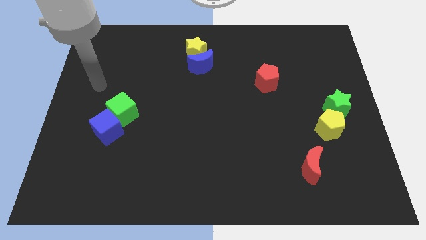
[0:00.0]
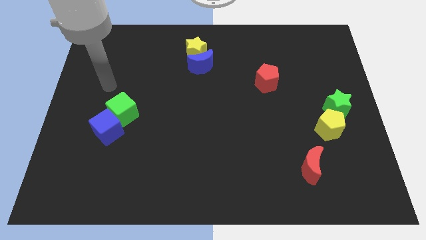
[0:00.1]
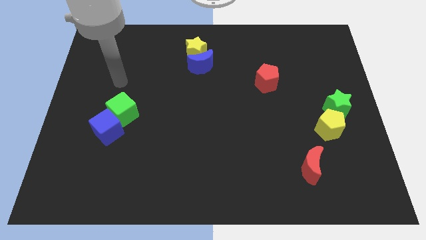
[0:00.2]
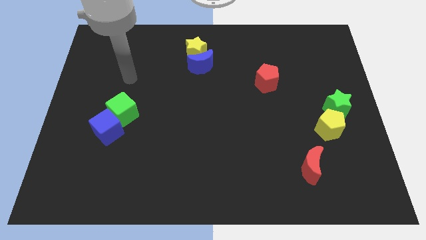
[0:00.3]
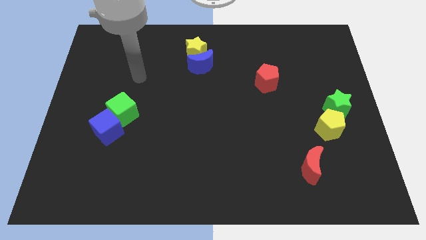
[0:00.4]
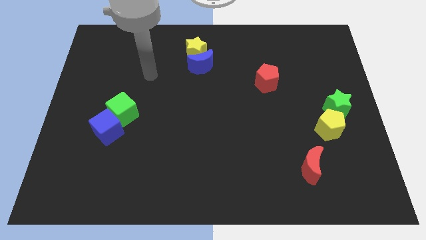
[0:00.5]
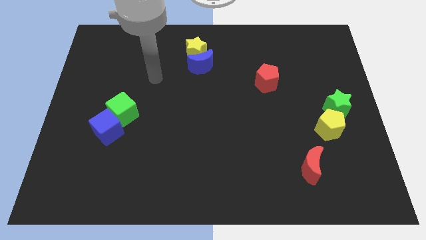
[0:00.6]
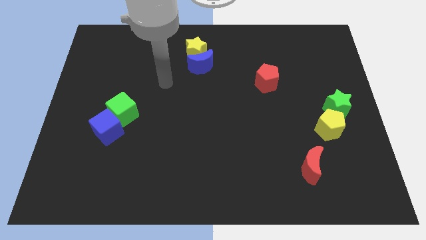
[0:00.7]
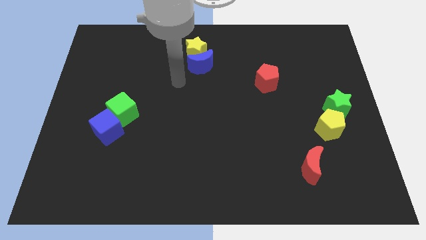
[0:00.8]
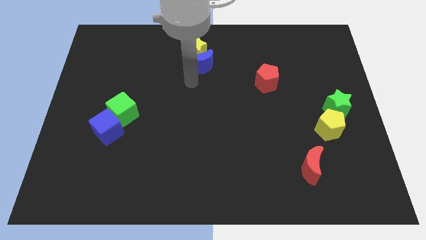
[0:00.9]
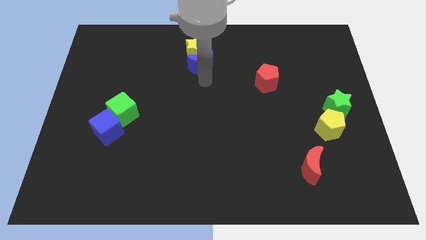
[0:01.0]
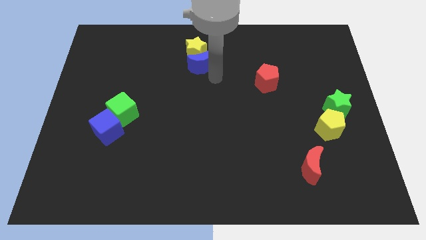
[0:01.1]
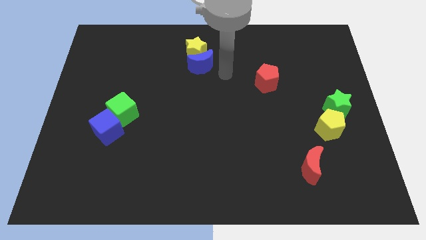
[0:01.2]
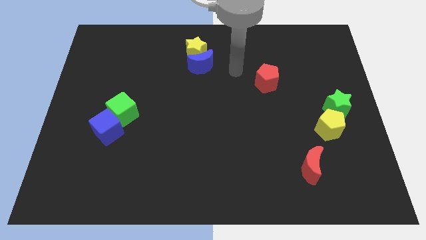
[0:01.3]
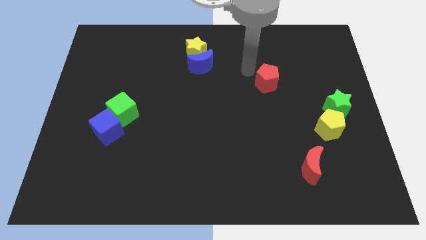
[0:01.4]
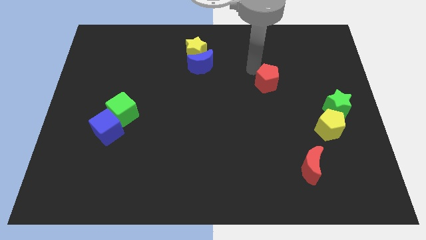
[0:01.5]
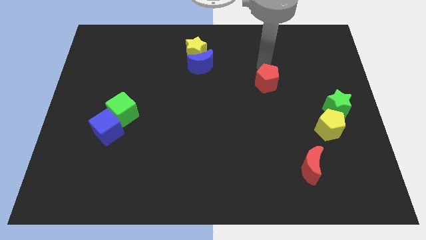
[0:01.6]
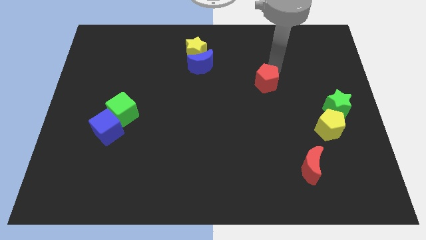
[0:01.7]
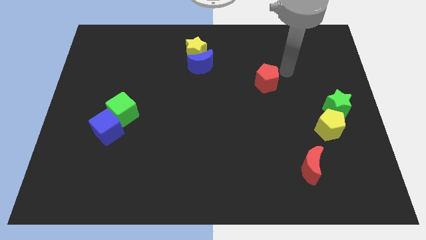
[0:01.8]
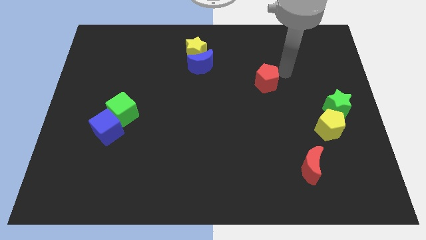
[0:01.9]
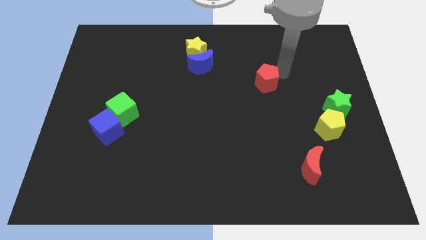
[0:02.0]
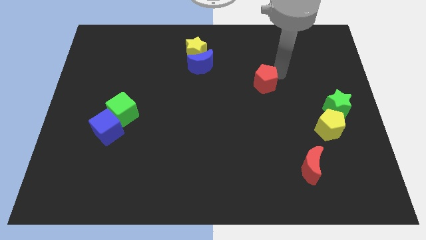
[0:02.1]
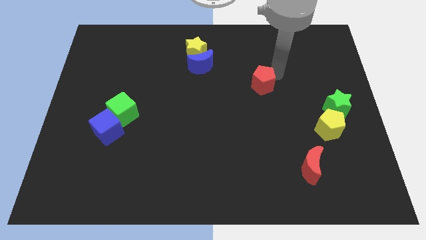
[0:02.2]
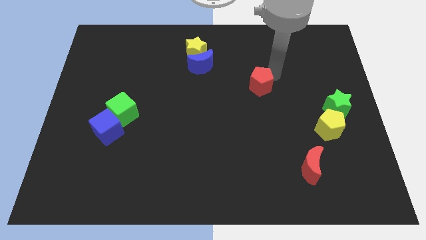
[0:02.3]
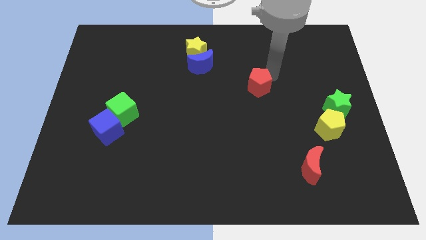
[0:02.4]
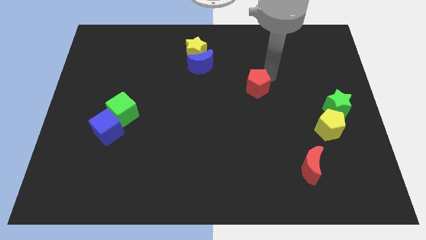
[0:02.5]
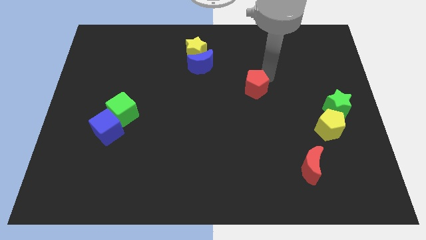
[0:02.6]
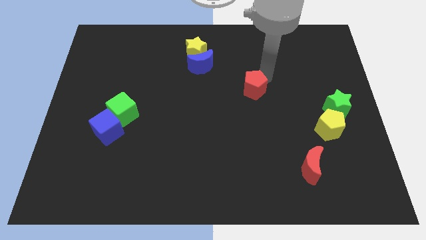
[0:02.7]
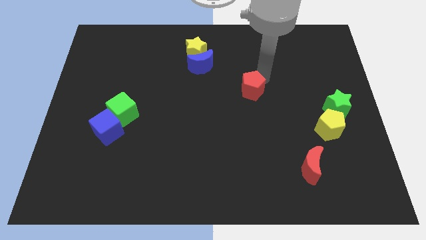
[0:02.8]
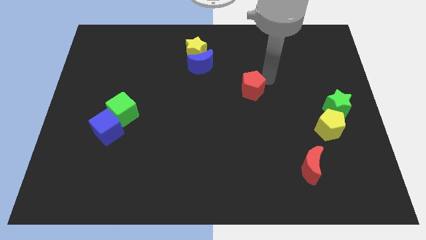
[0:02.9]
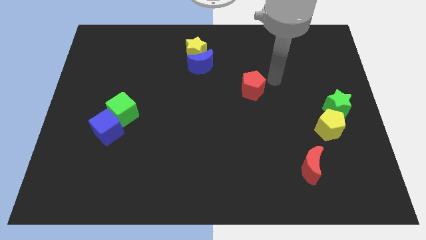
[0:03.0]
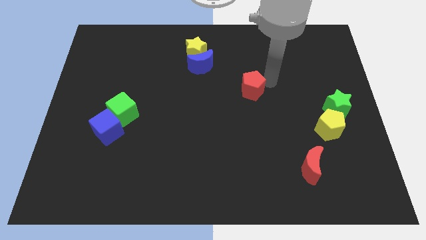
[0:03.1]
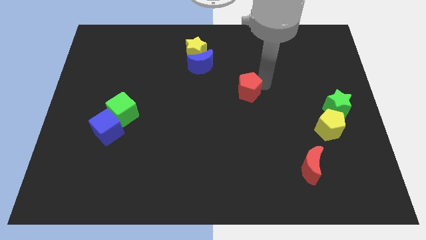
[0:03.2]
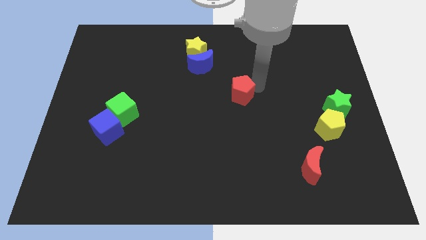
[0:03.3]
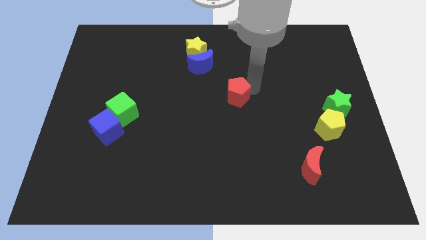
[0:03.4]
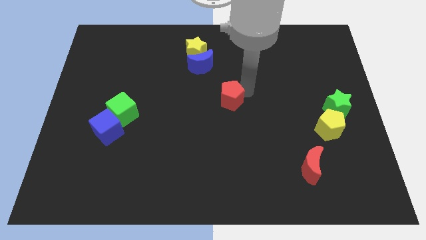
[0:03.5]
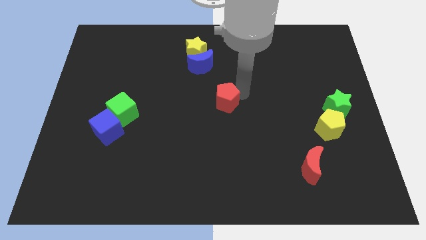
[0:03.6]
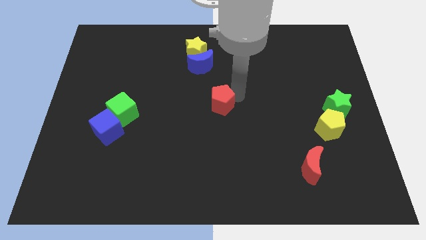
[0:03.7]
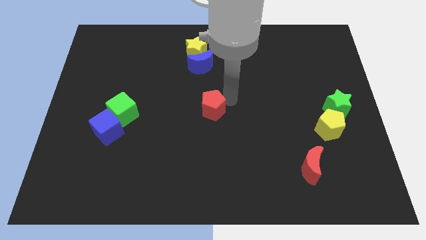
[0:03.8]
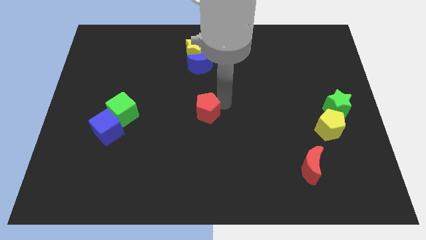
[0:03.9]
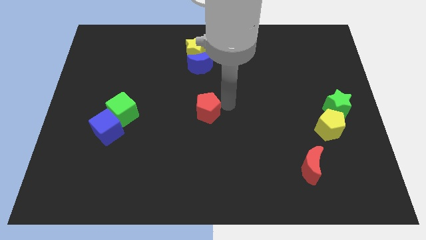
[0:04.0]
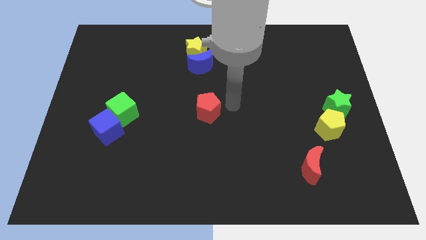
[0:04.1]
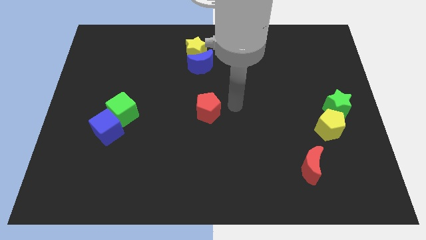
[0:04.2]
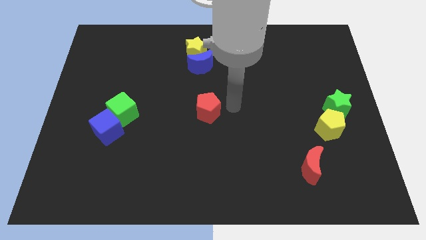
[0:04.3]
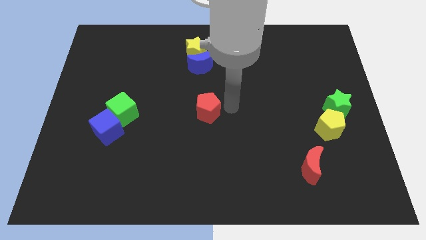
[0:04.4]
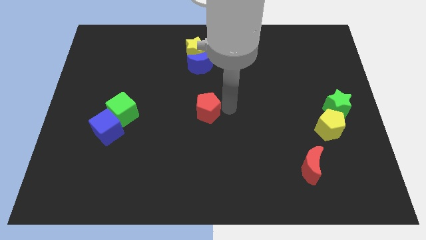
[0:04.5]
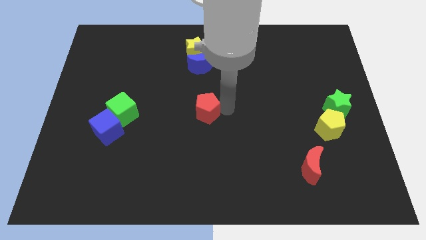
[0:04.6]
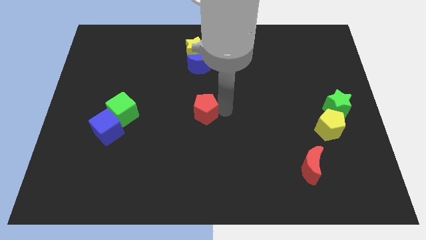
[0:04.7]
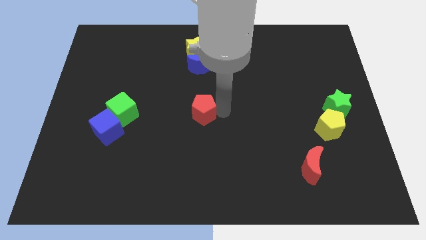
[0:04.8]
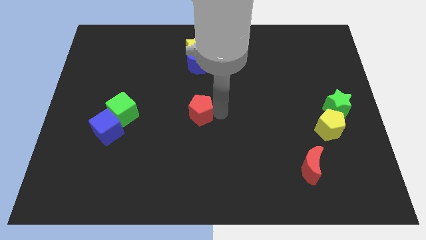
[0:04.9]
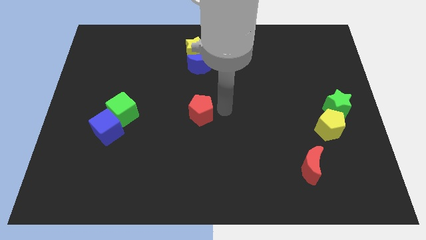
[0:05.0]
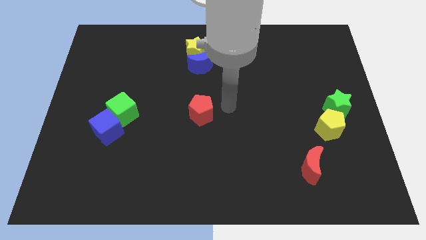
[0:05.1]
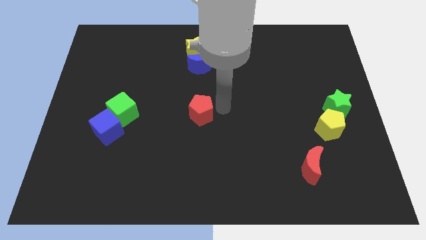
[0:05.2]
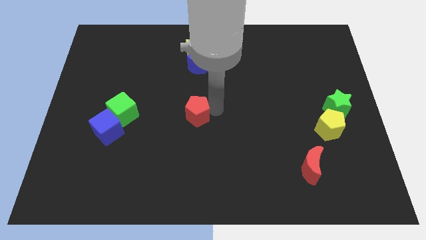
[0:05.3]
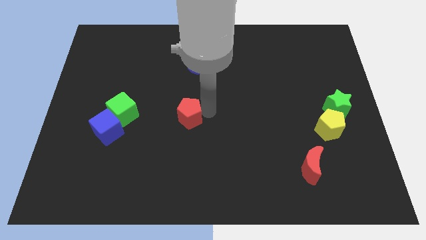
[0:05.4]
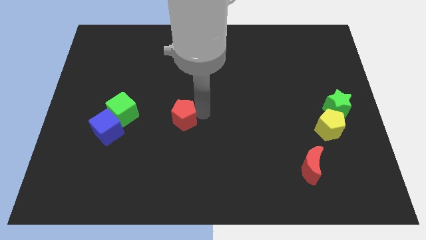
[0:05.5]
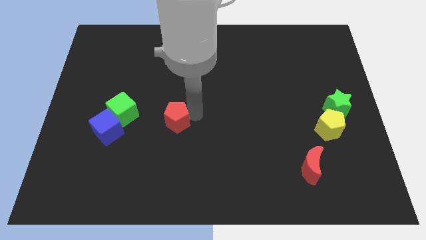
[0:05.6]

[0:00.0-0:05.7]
push the red pentagon to the right side of the blue cube

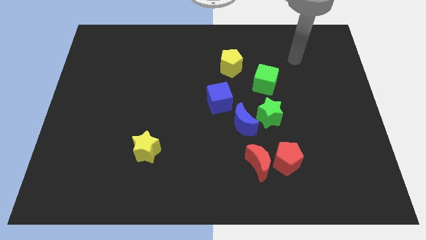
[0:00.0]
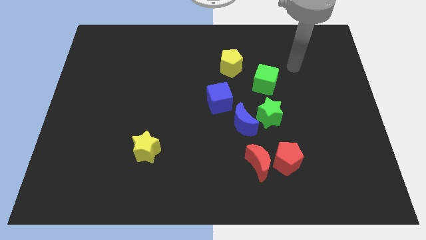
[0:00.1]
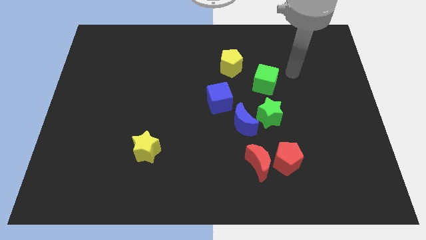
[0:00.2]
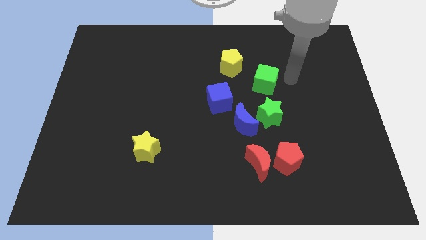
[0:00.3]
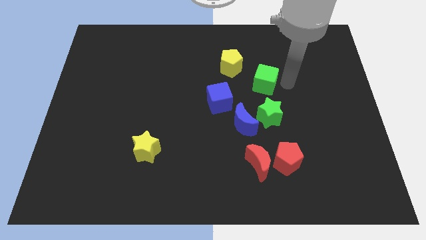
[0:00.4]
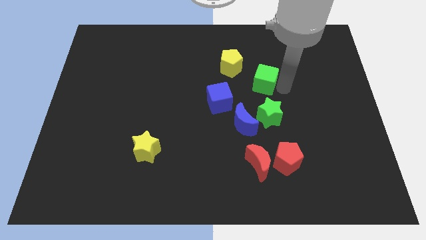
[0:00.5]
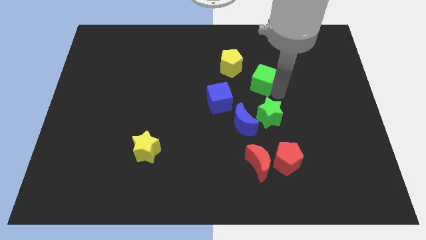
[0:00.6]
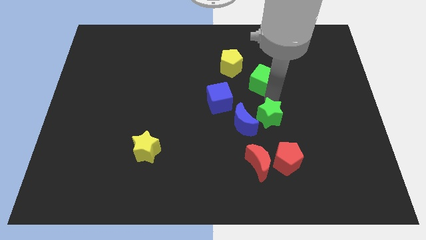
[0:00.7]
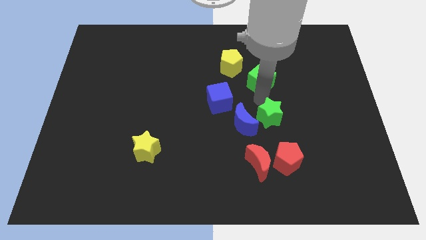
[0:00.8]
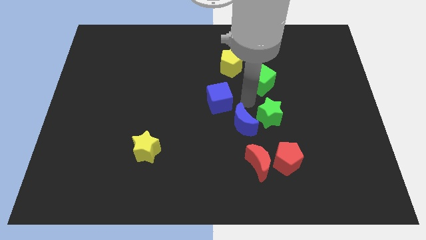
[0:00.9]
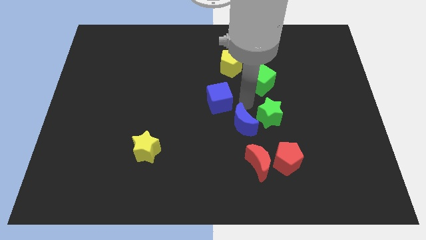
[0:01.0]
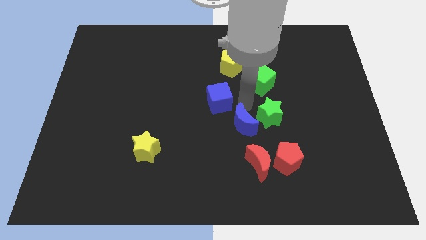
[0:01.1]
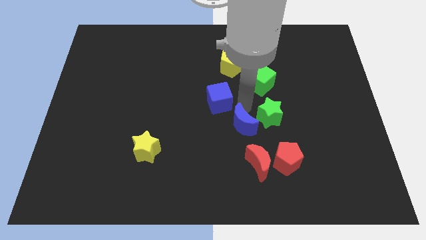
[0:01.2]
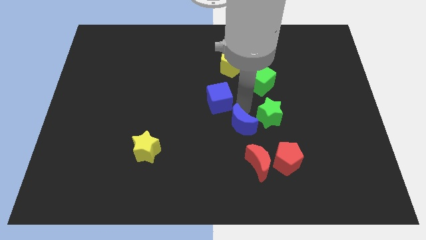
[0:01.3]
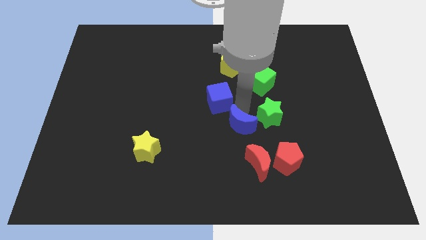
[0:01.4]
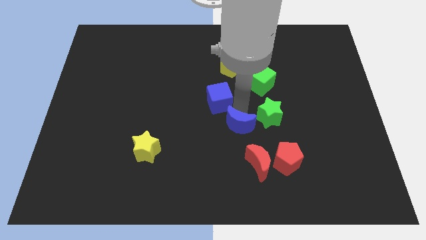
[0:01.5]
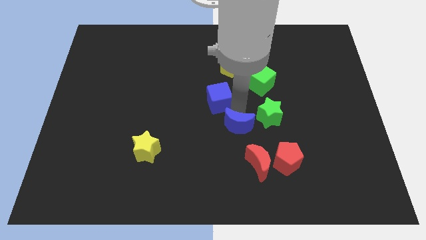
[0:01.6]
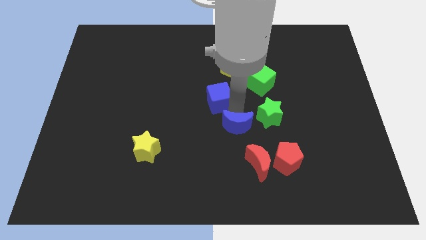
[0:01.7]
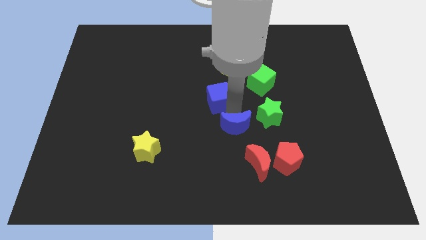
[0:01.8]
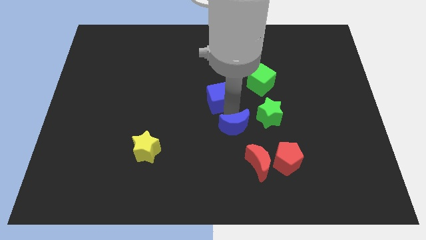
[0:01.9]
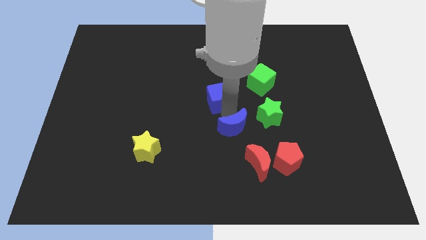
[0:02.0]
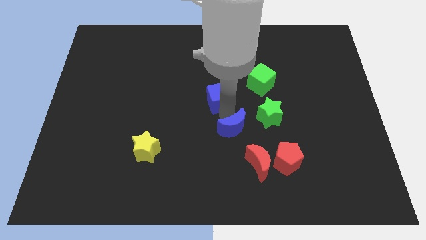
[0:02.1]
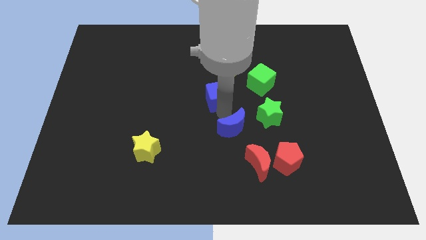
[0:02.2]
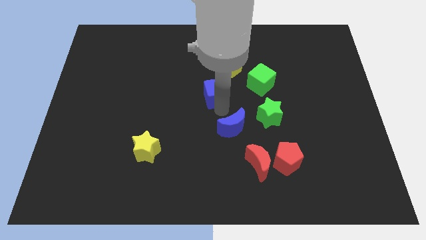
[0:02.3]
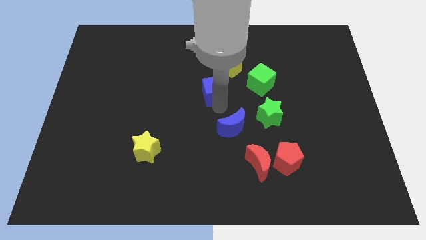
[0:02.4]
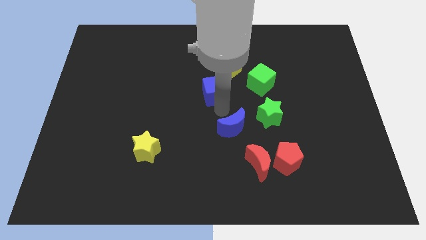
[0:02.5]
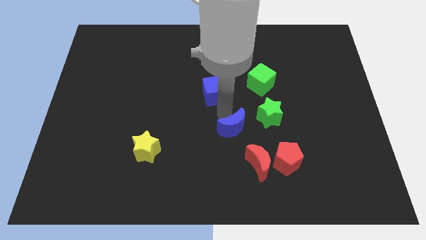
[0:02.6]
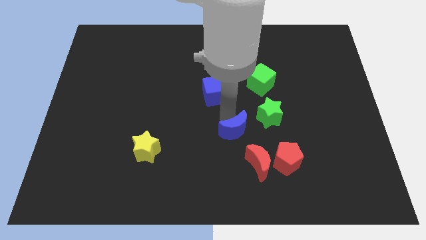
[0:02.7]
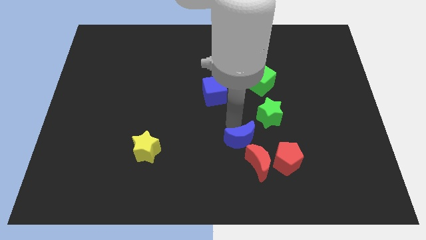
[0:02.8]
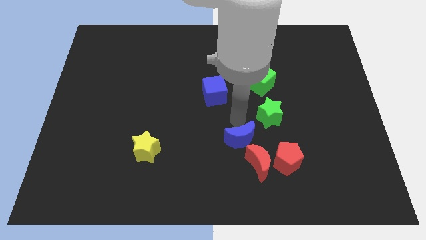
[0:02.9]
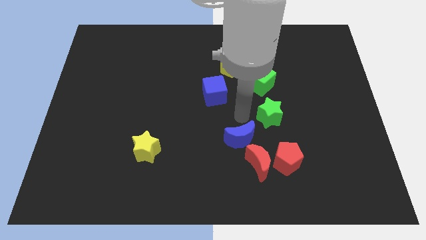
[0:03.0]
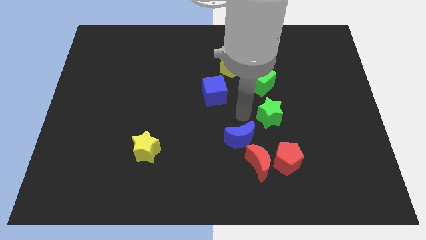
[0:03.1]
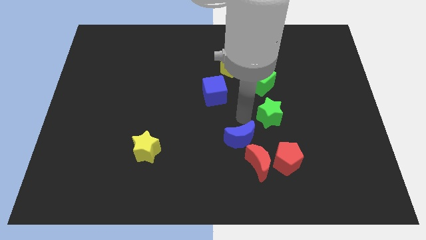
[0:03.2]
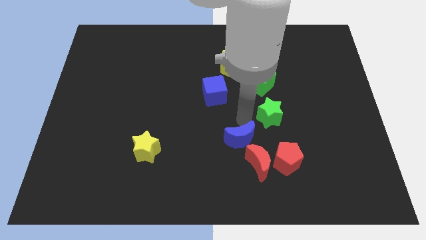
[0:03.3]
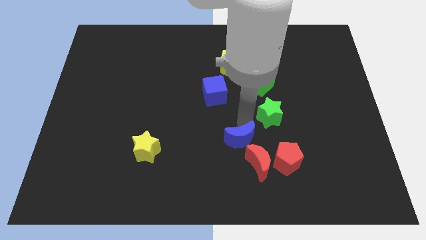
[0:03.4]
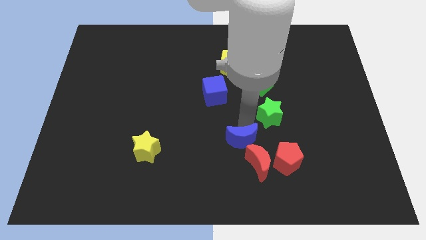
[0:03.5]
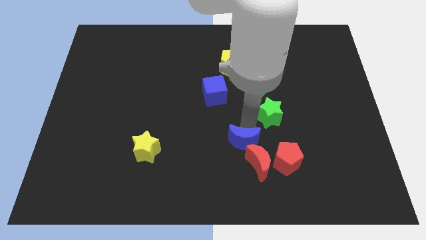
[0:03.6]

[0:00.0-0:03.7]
move the blue moon to the left of the red pentagon
